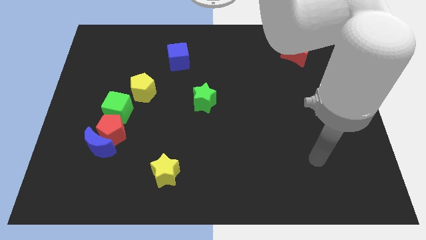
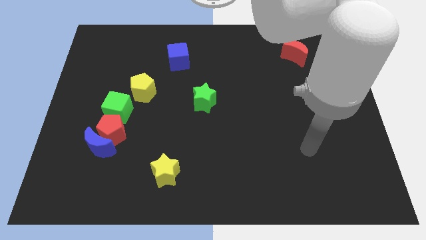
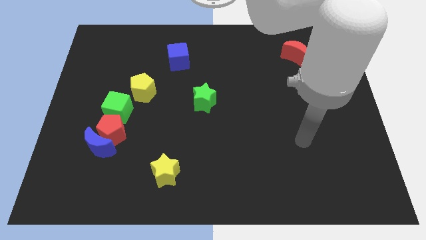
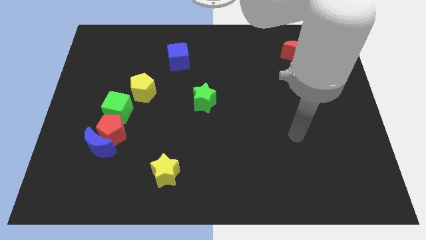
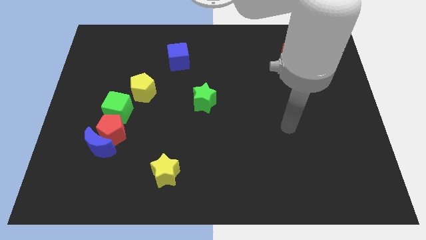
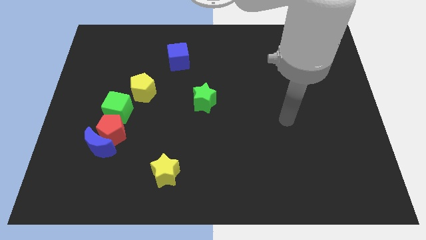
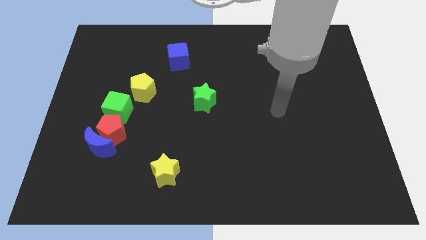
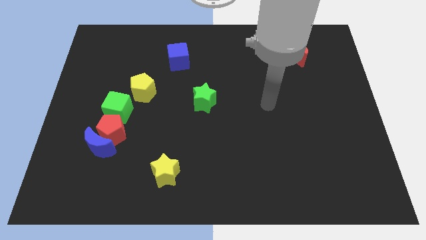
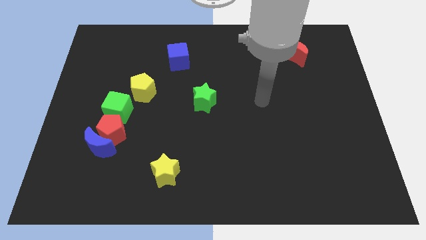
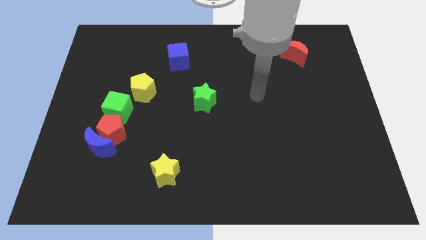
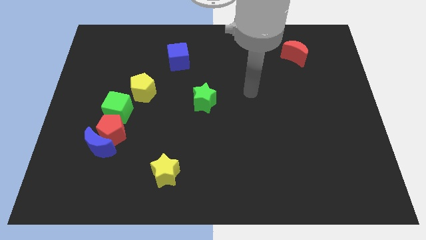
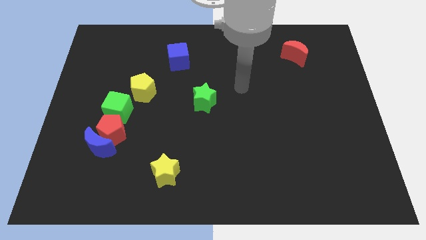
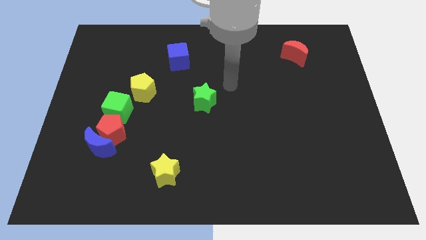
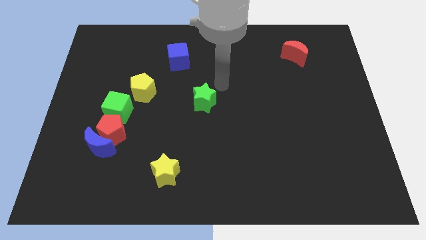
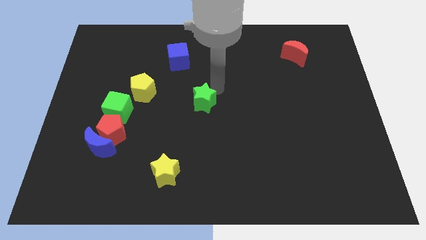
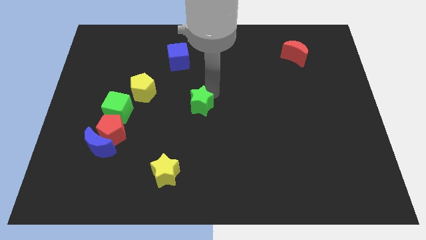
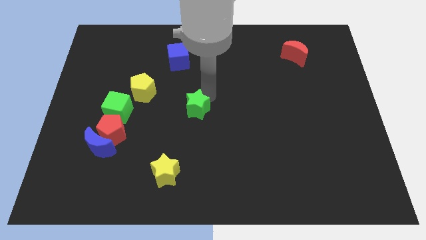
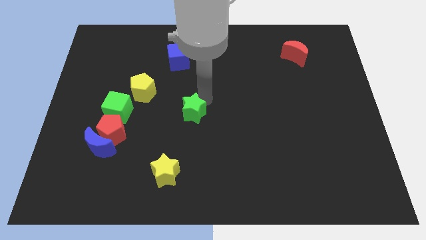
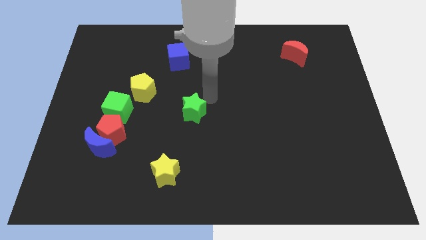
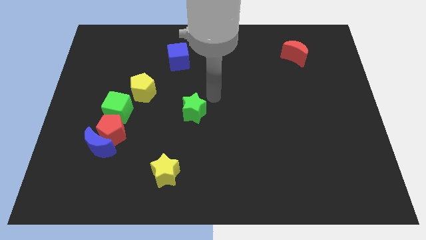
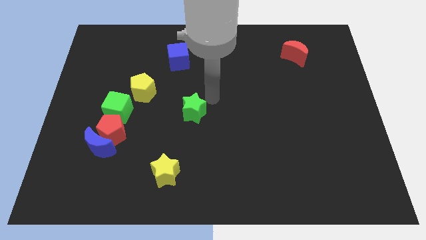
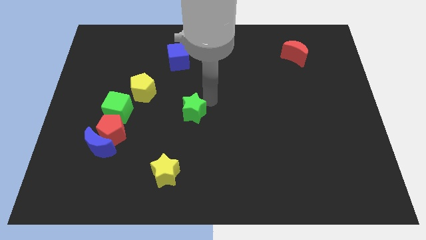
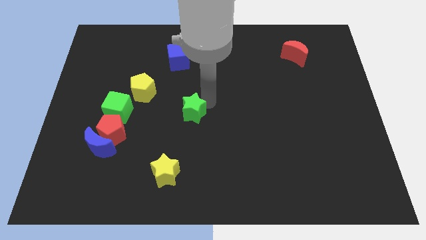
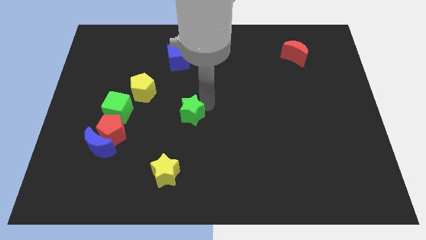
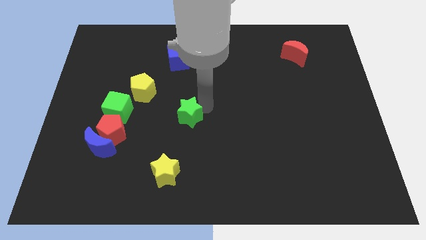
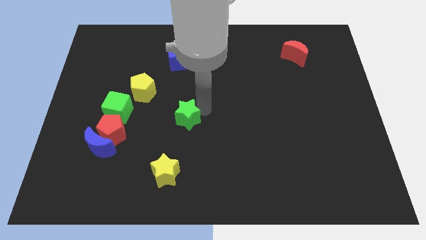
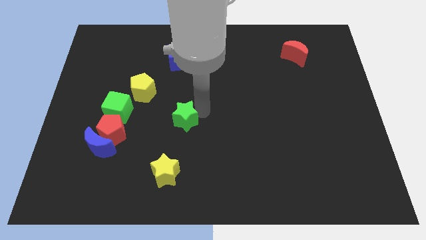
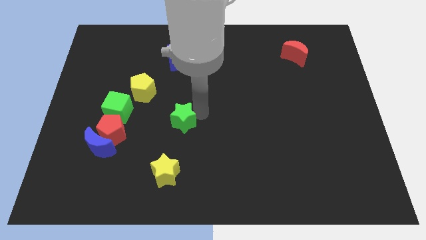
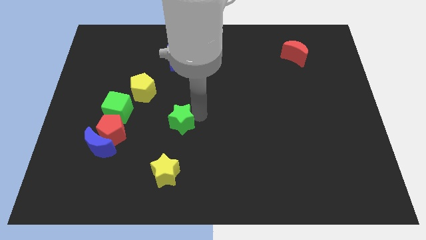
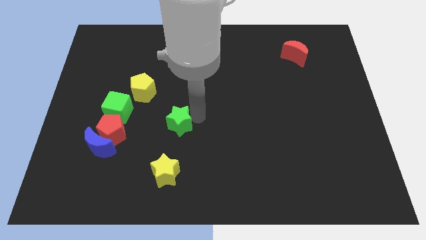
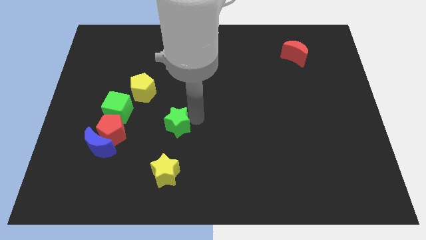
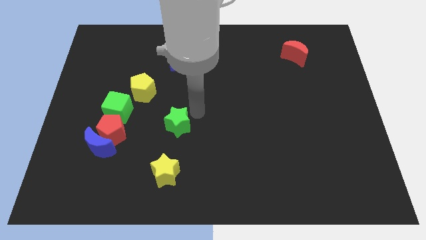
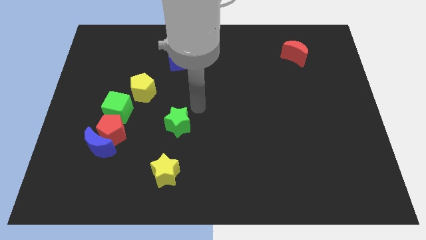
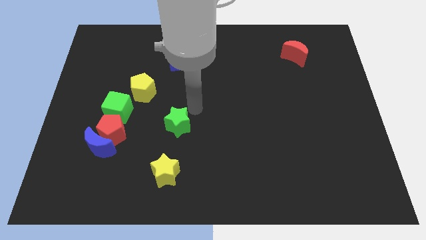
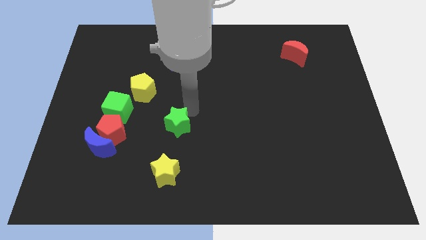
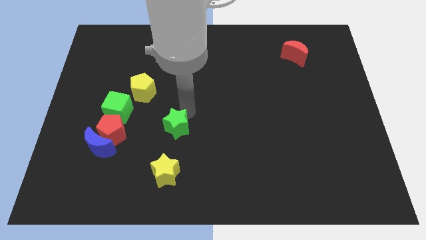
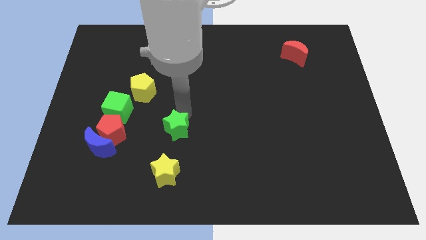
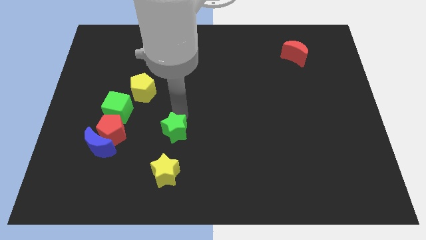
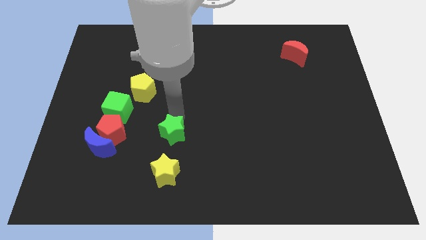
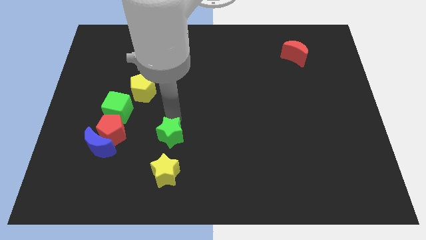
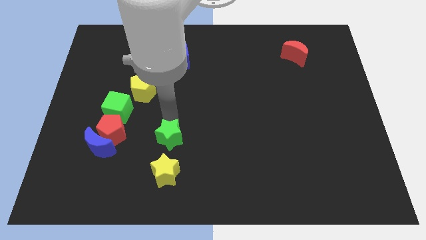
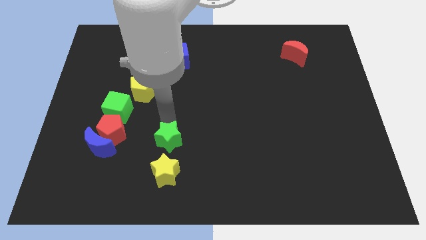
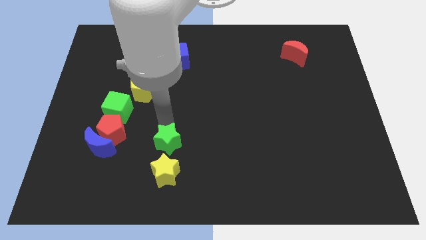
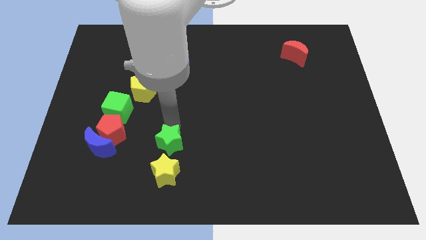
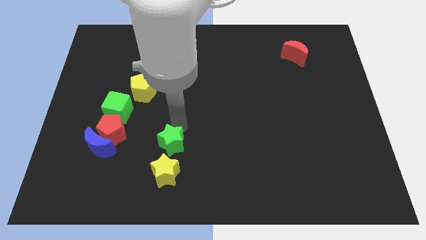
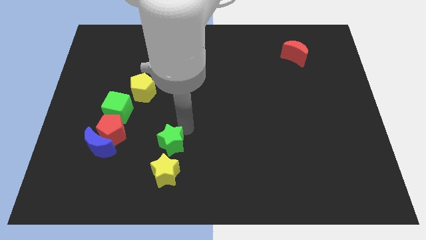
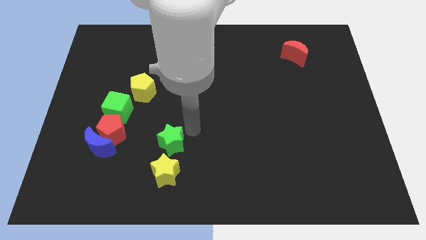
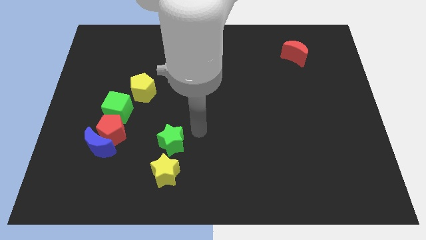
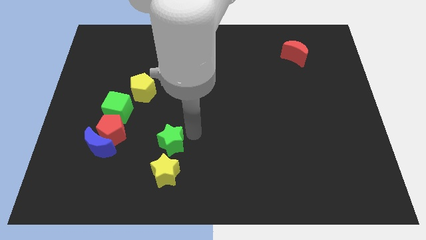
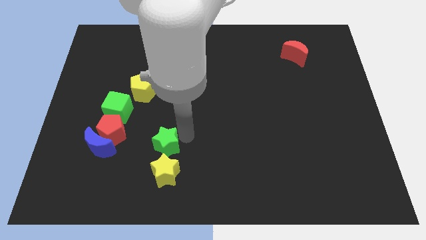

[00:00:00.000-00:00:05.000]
push the green star to the top left side of the yellow star

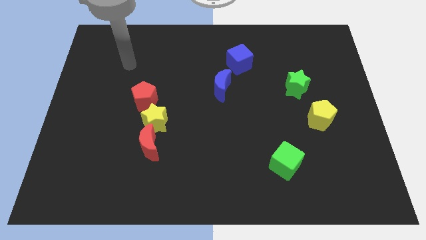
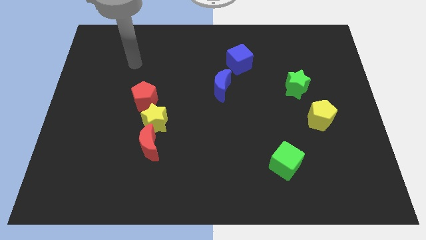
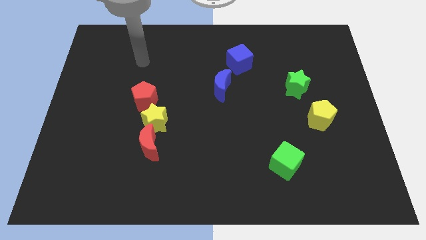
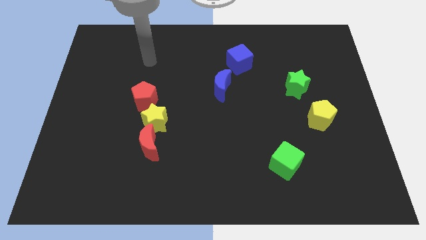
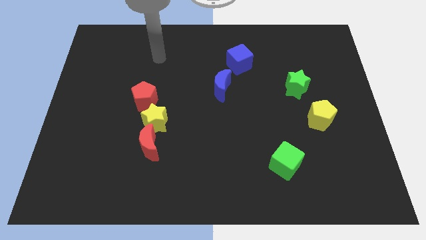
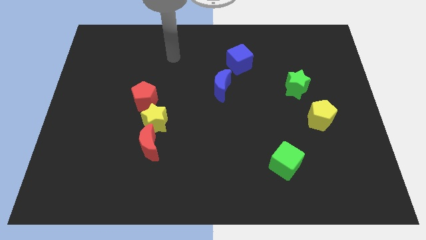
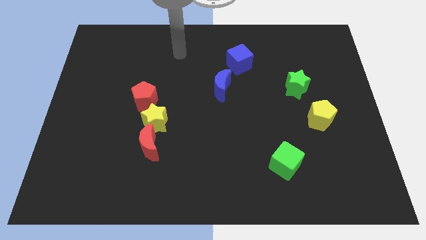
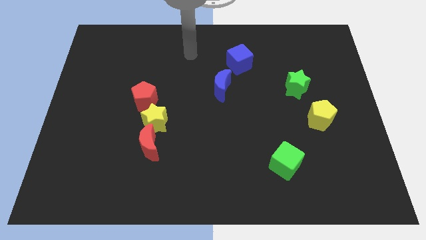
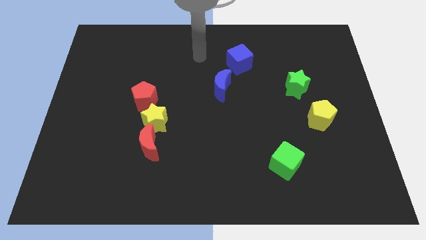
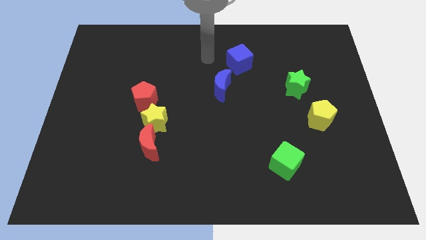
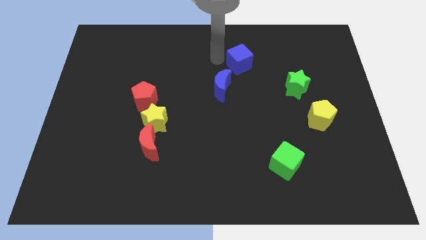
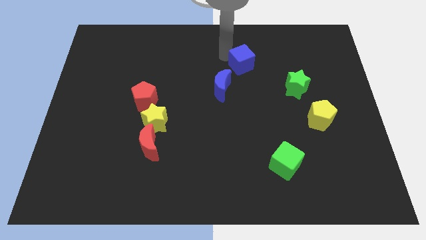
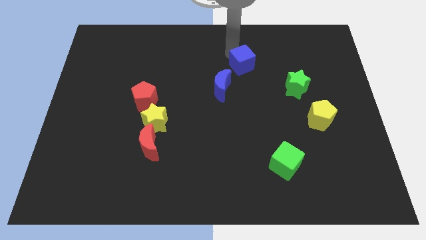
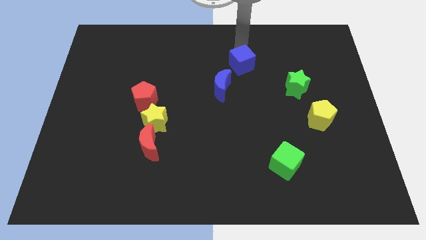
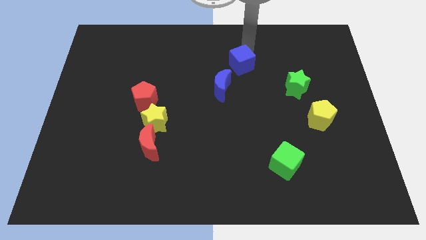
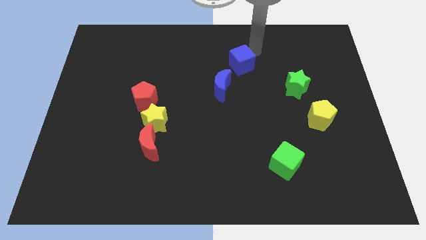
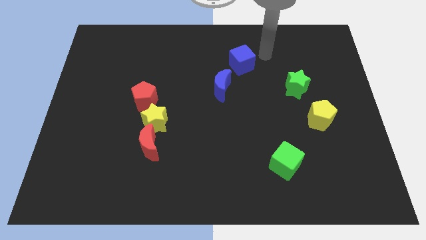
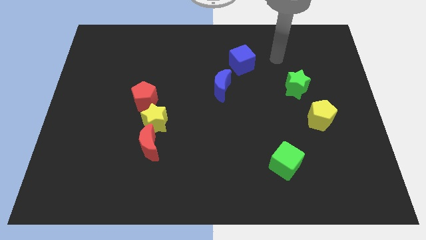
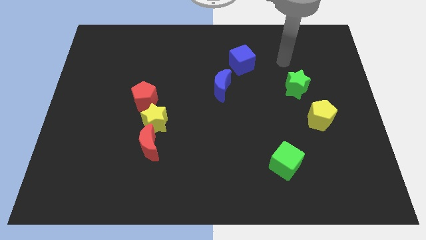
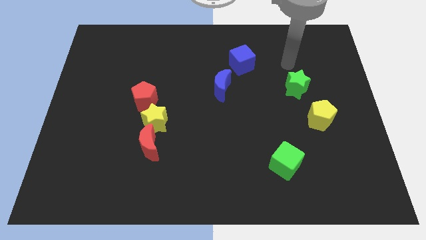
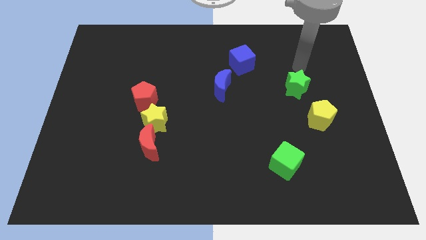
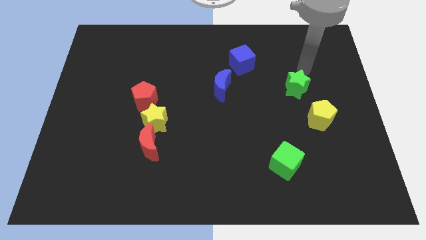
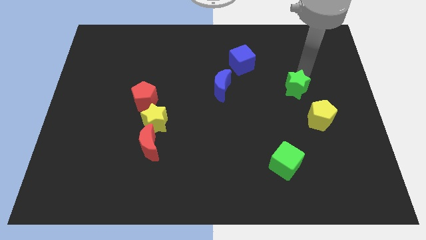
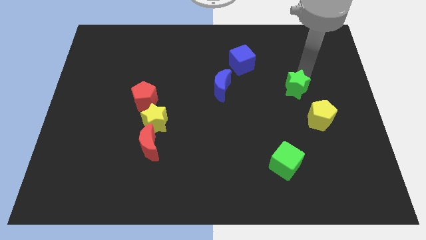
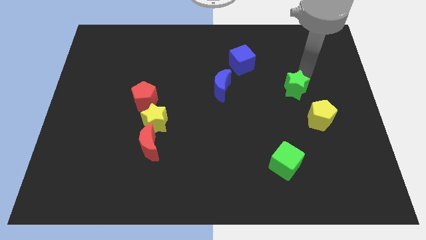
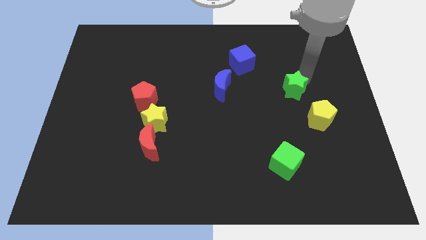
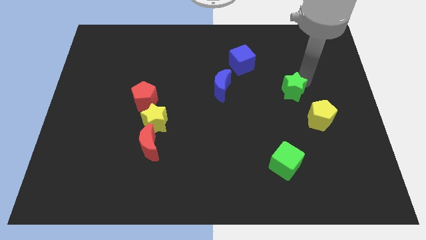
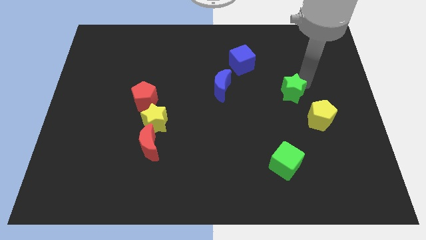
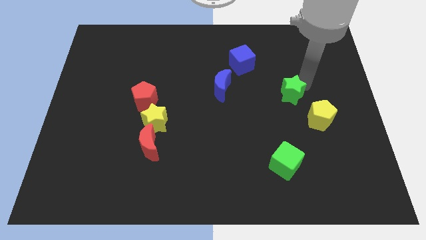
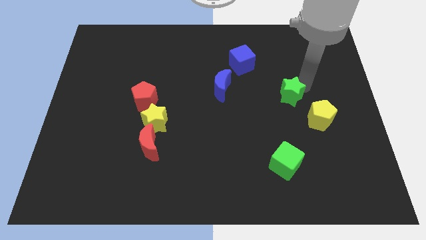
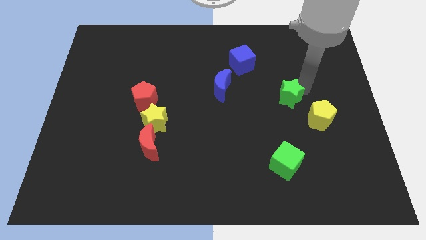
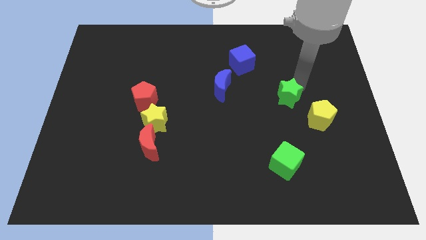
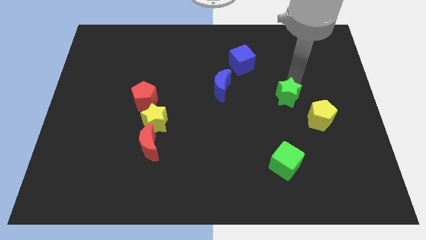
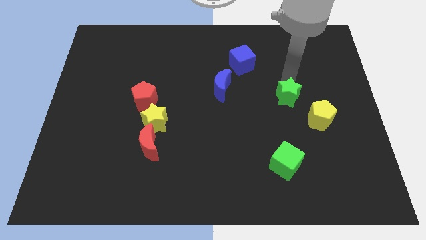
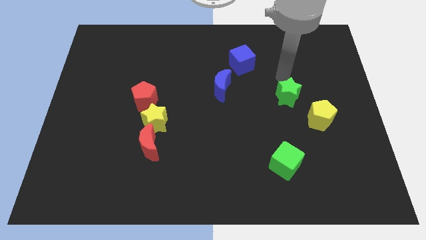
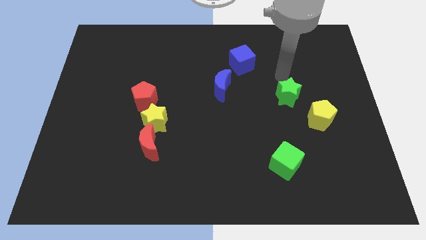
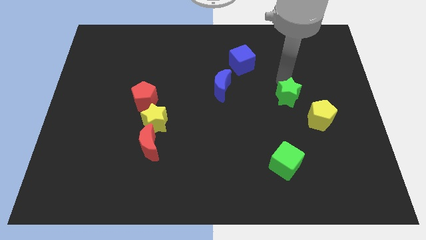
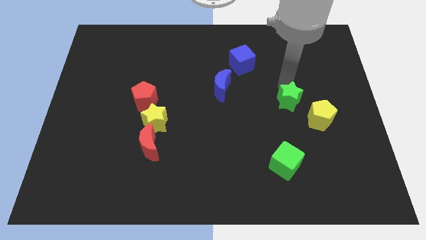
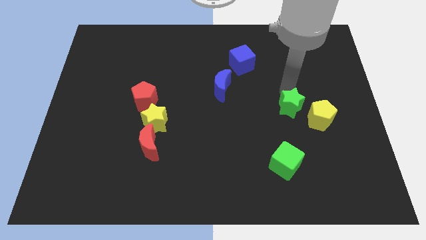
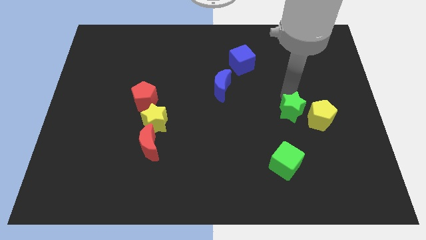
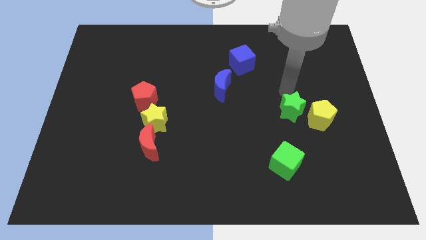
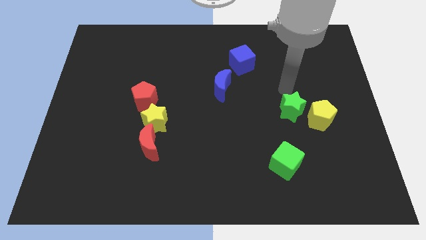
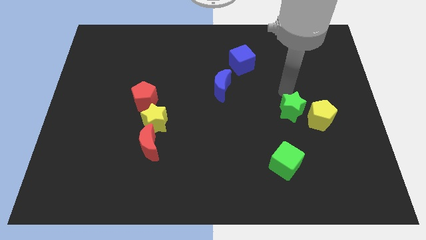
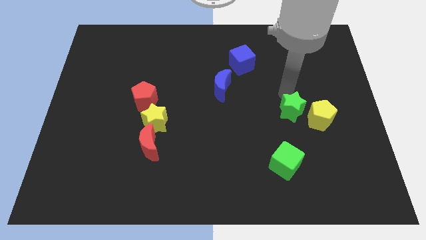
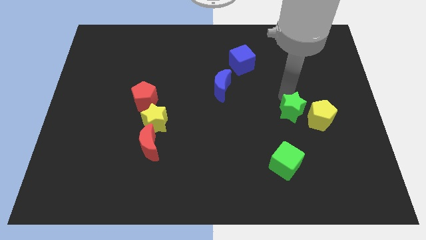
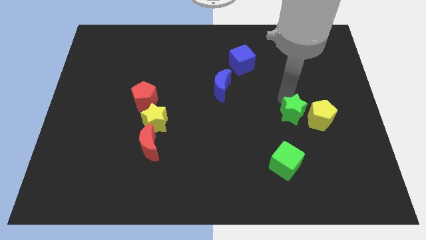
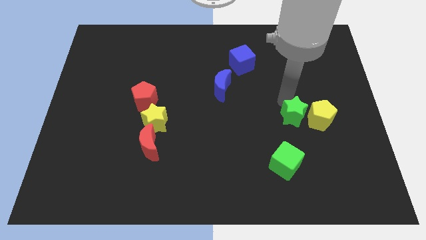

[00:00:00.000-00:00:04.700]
put the green star to the bottom left side of the yellow pentagon
